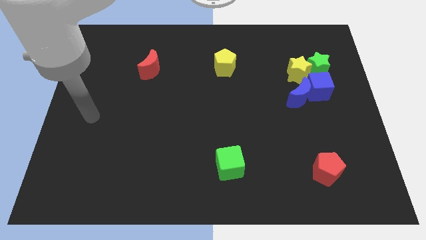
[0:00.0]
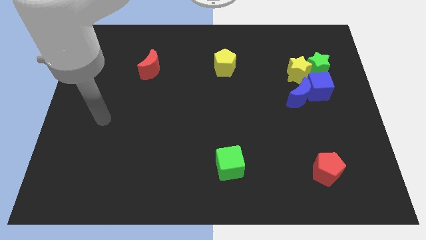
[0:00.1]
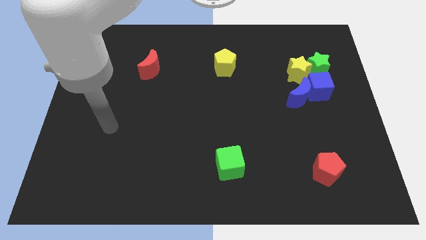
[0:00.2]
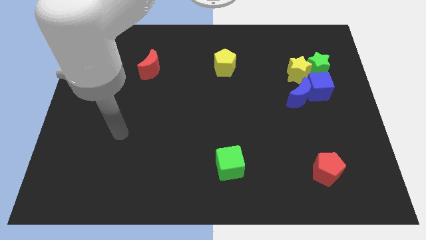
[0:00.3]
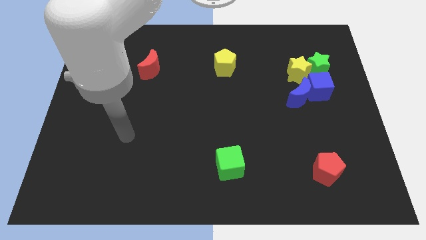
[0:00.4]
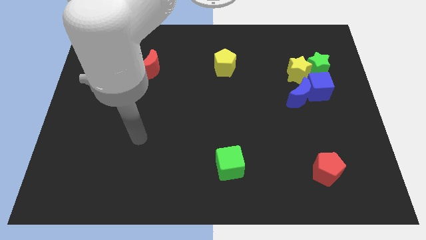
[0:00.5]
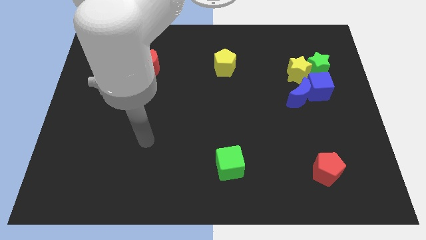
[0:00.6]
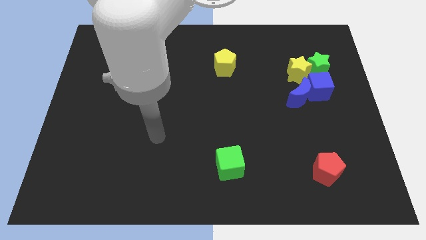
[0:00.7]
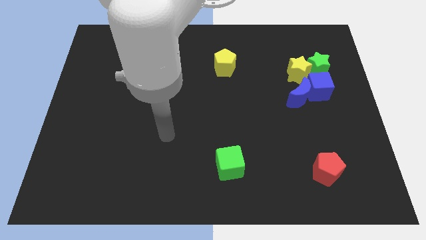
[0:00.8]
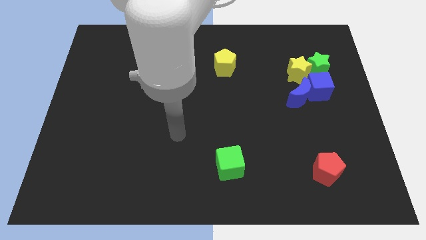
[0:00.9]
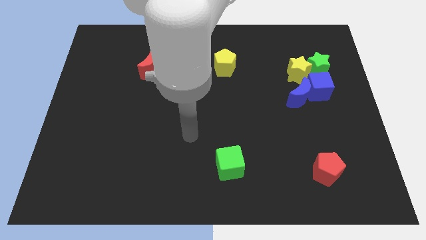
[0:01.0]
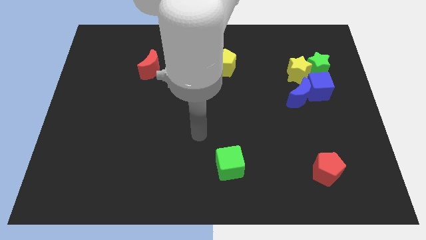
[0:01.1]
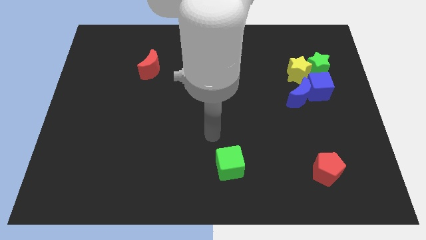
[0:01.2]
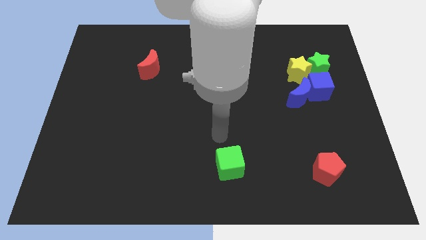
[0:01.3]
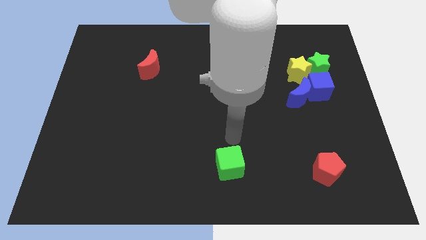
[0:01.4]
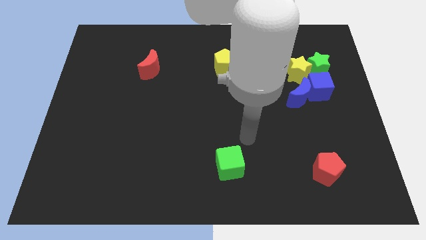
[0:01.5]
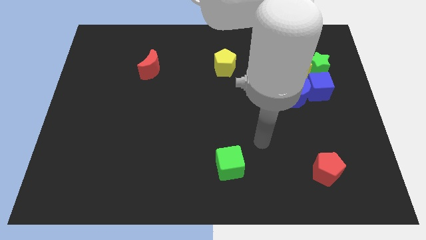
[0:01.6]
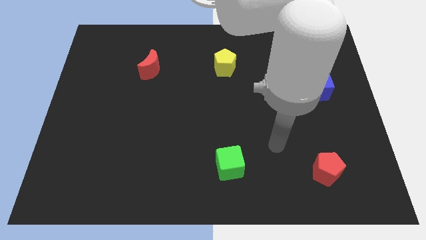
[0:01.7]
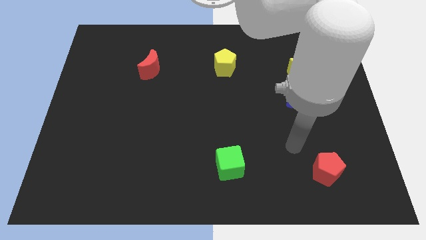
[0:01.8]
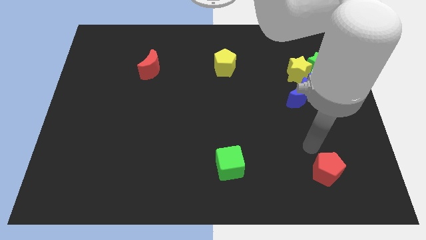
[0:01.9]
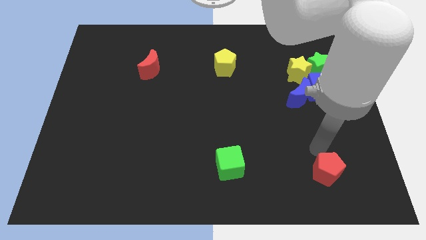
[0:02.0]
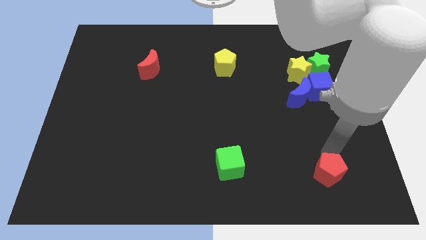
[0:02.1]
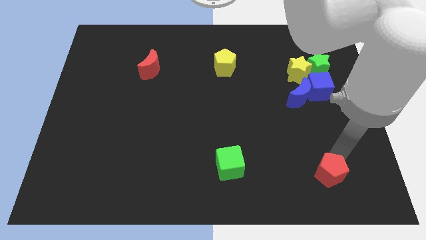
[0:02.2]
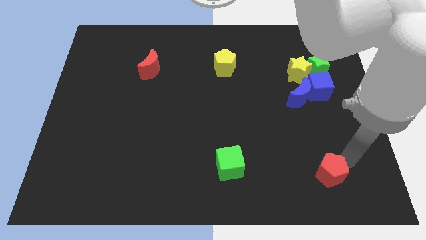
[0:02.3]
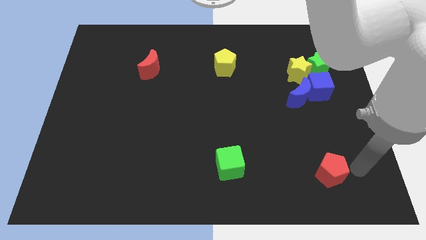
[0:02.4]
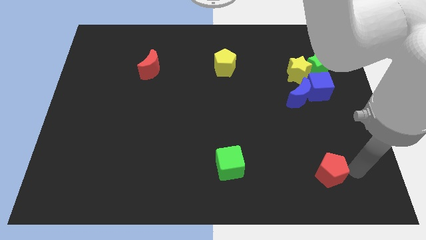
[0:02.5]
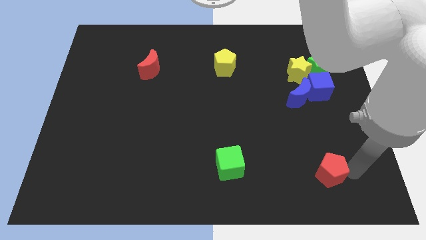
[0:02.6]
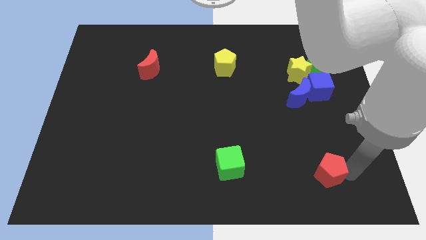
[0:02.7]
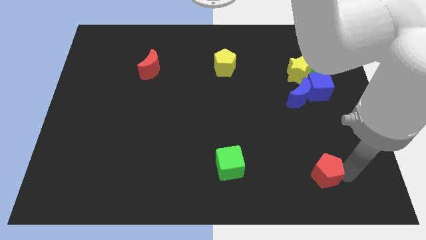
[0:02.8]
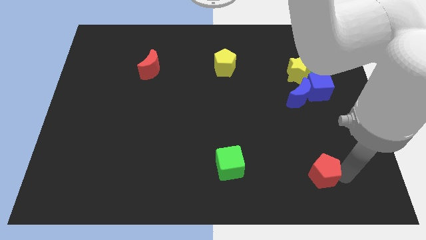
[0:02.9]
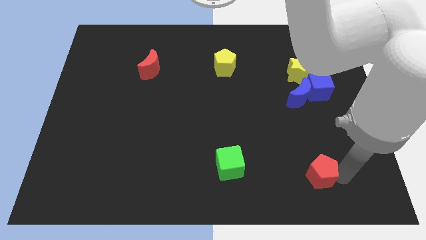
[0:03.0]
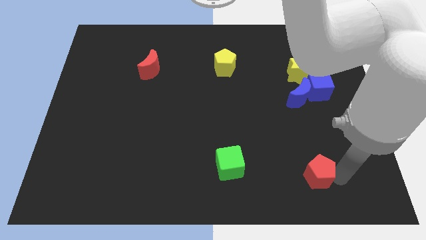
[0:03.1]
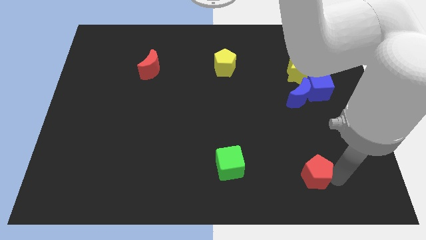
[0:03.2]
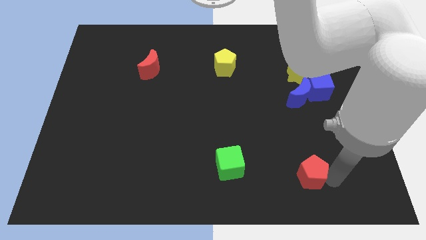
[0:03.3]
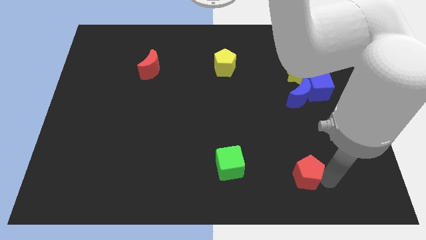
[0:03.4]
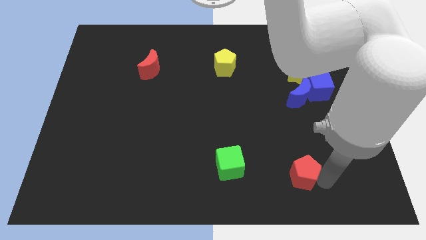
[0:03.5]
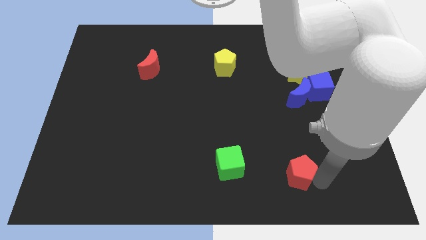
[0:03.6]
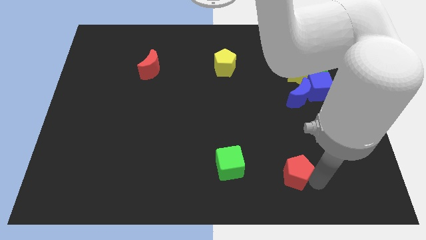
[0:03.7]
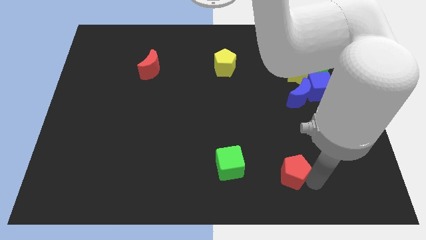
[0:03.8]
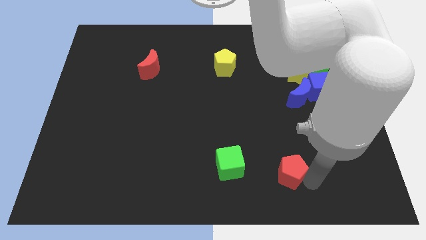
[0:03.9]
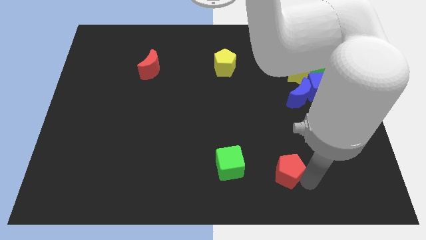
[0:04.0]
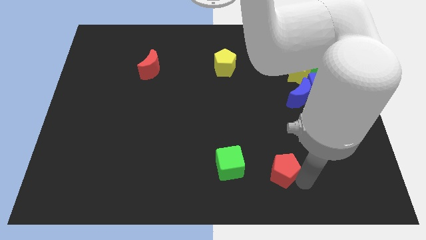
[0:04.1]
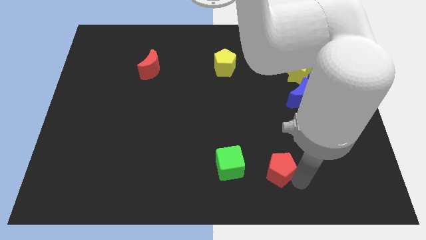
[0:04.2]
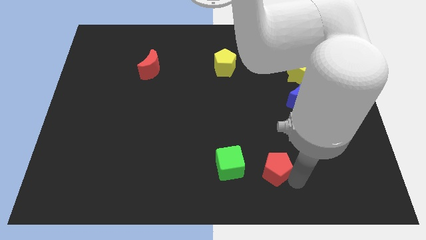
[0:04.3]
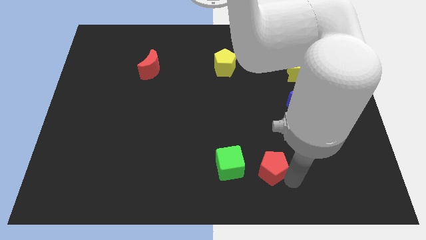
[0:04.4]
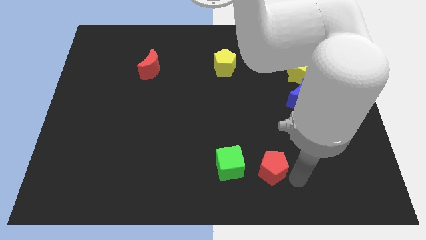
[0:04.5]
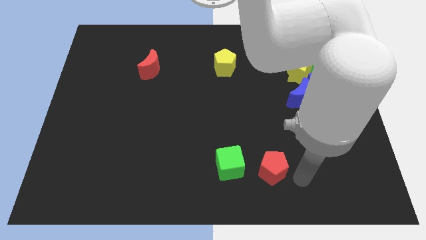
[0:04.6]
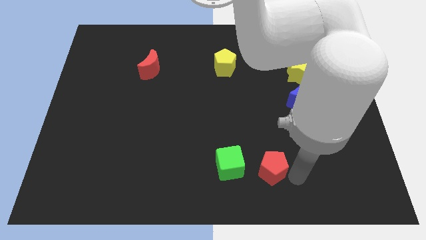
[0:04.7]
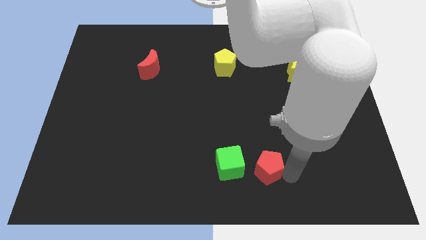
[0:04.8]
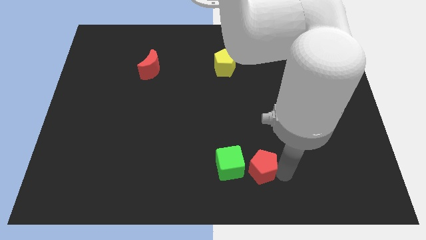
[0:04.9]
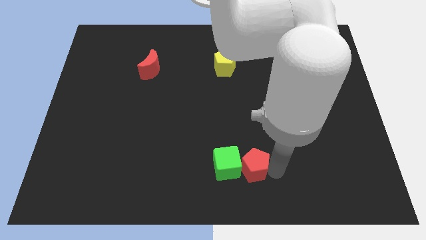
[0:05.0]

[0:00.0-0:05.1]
push the red pentagon next to the green cube

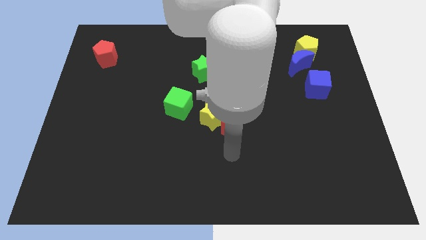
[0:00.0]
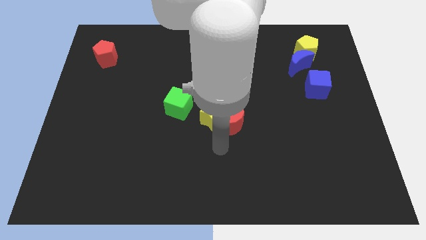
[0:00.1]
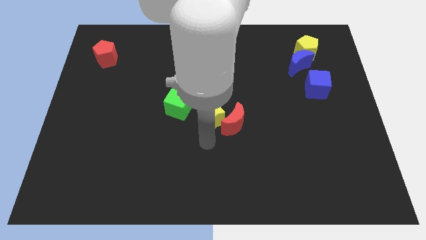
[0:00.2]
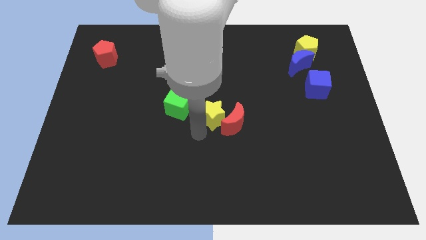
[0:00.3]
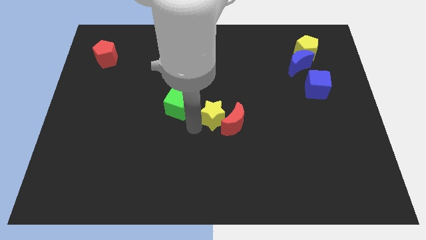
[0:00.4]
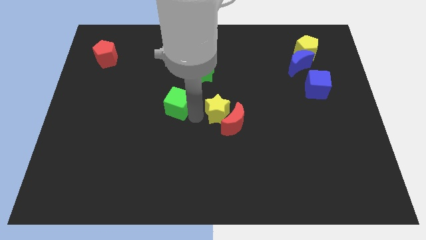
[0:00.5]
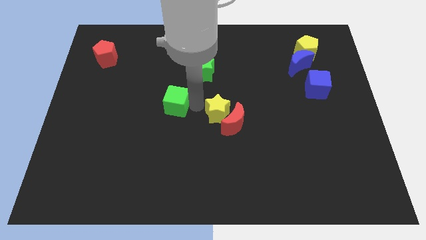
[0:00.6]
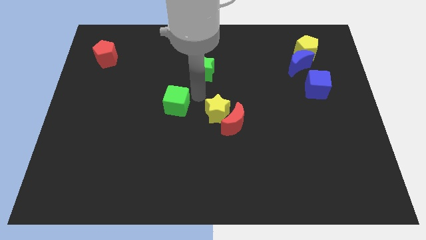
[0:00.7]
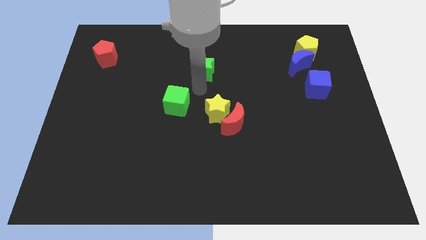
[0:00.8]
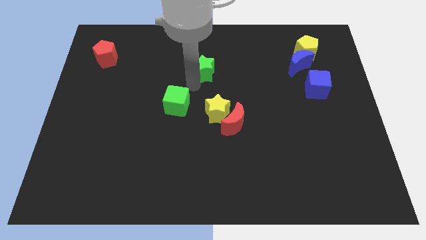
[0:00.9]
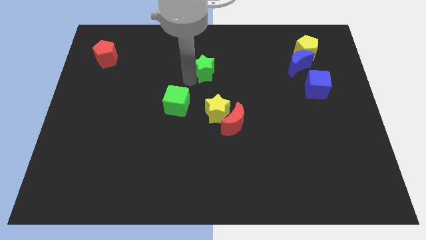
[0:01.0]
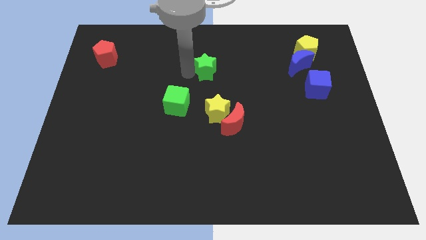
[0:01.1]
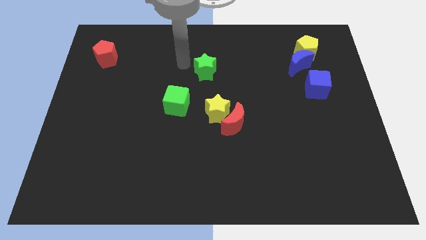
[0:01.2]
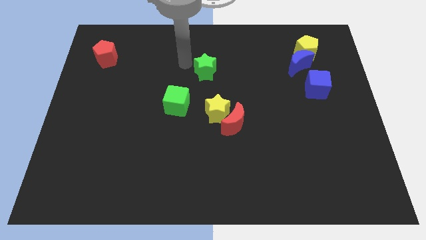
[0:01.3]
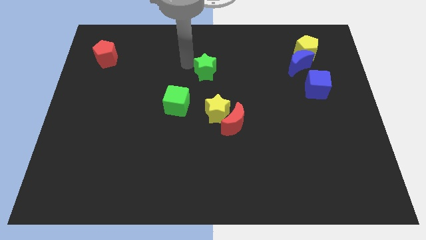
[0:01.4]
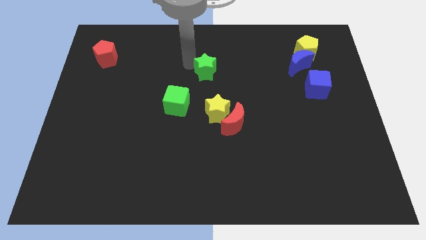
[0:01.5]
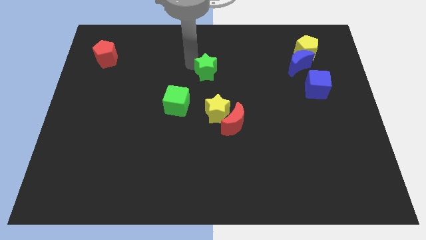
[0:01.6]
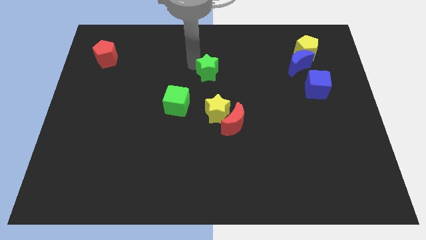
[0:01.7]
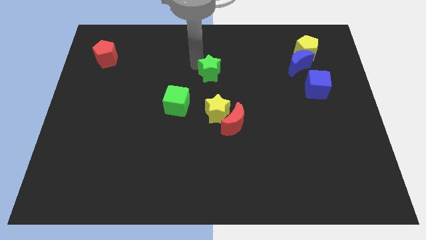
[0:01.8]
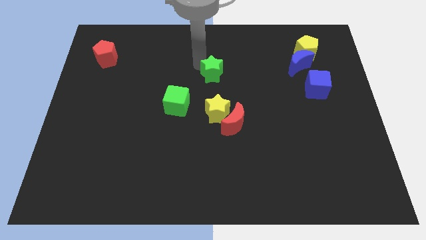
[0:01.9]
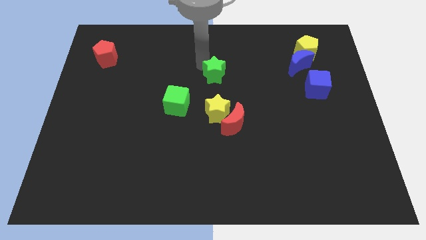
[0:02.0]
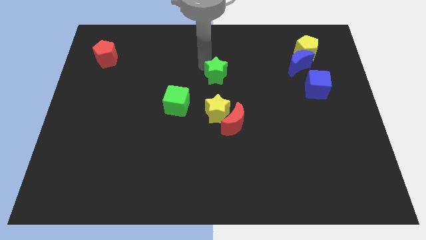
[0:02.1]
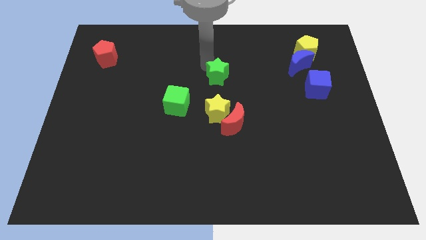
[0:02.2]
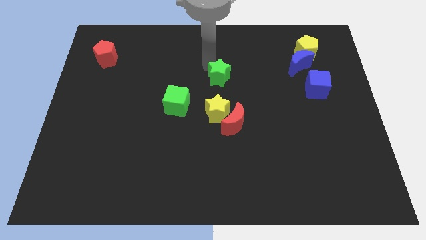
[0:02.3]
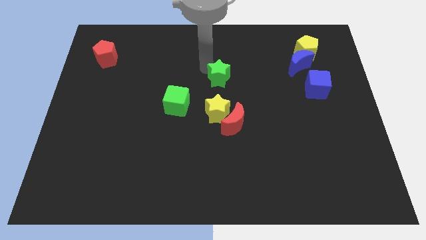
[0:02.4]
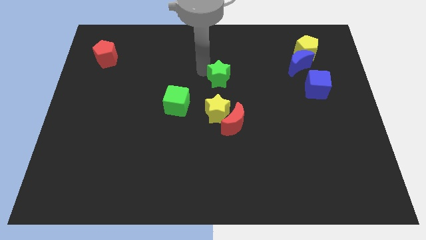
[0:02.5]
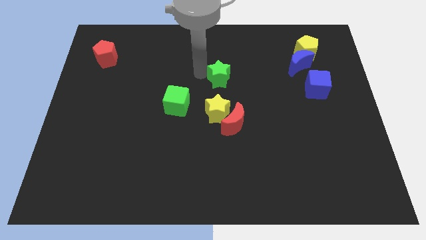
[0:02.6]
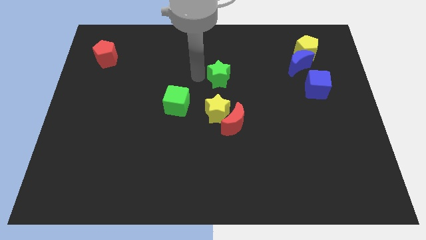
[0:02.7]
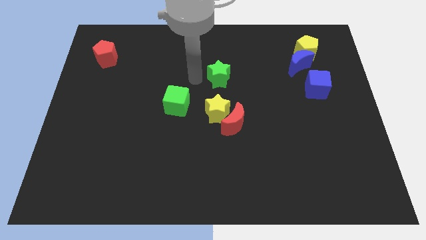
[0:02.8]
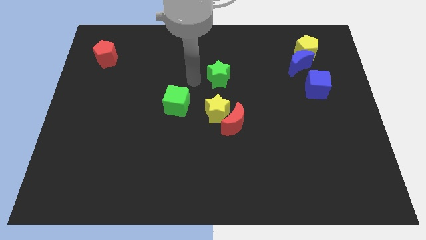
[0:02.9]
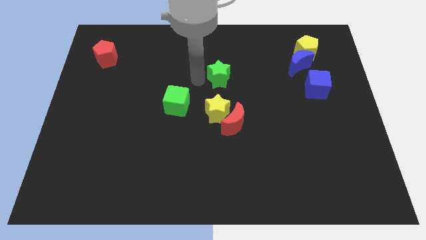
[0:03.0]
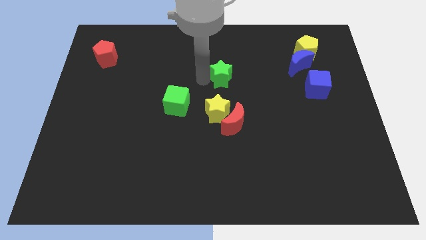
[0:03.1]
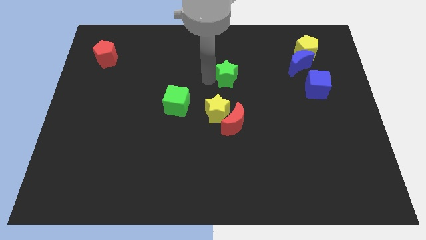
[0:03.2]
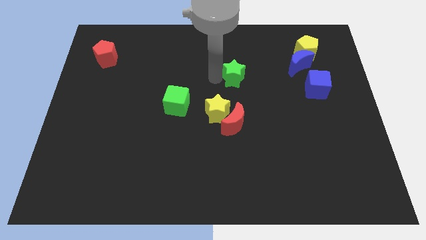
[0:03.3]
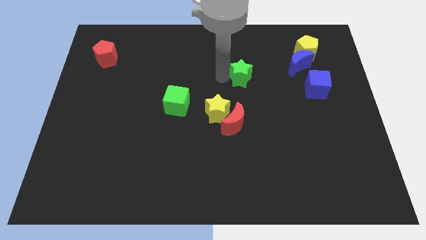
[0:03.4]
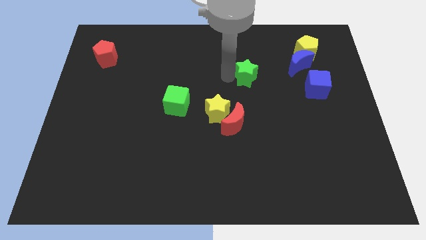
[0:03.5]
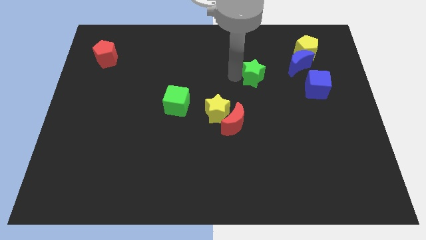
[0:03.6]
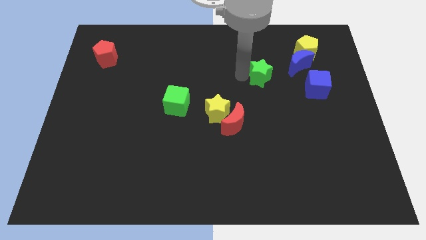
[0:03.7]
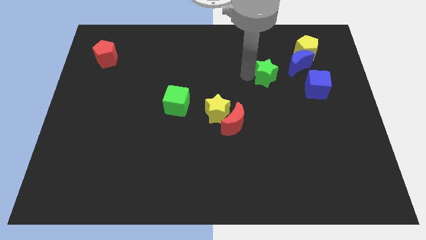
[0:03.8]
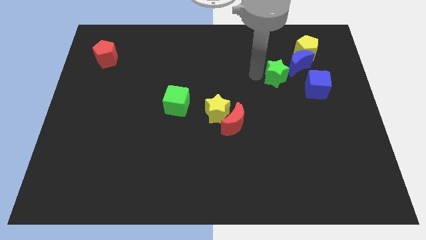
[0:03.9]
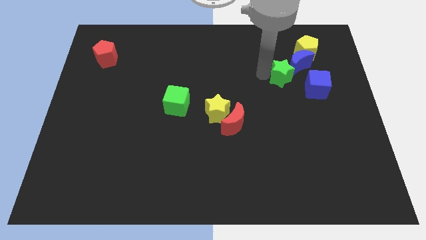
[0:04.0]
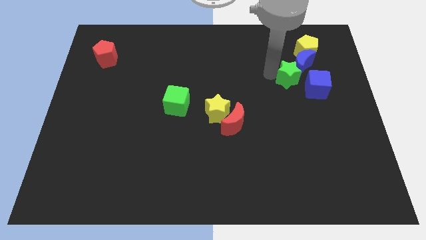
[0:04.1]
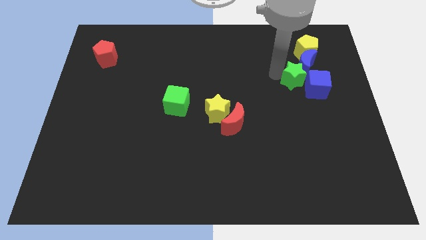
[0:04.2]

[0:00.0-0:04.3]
put the green star towards the blue cube
